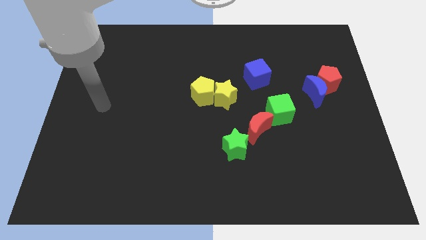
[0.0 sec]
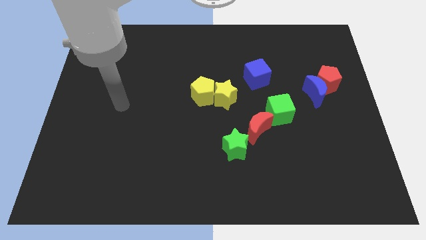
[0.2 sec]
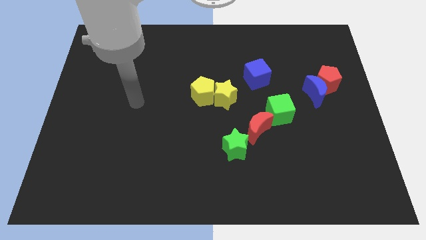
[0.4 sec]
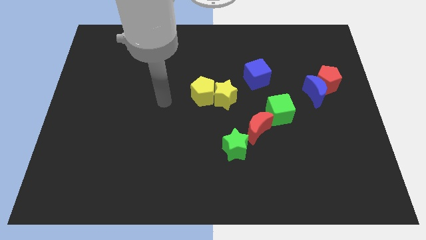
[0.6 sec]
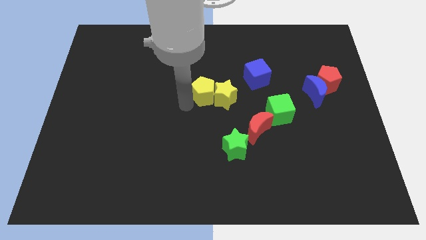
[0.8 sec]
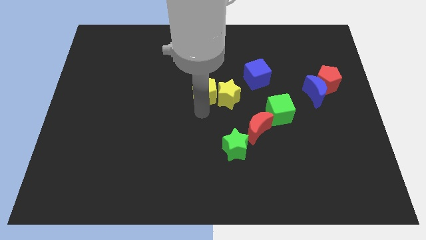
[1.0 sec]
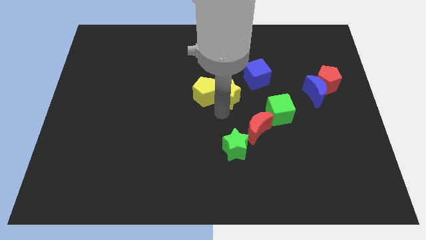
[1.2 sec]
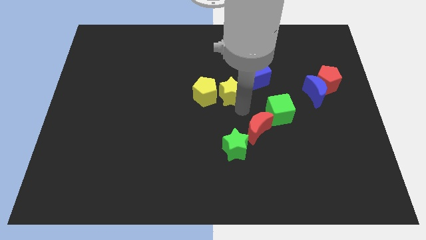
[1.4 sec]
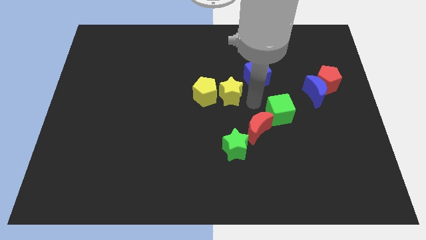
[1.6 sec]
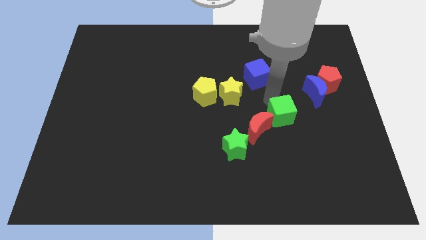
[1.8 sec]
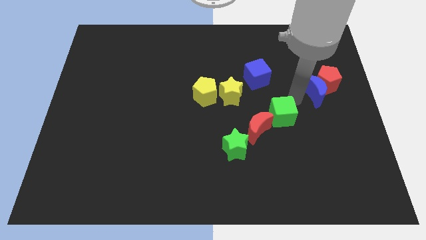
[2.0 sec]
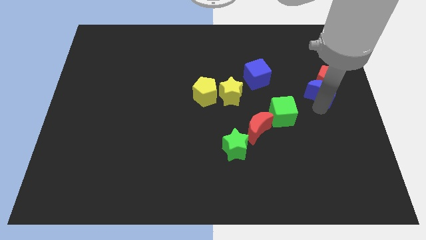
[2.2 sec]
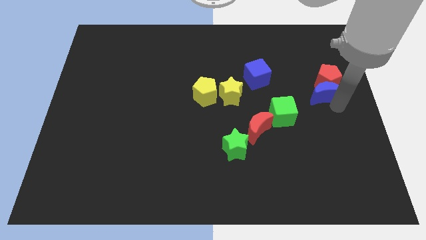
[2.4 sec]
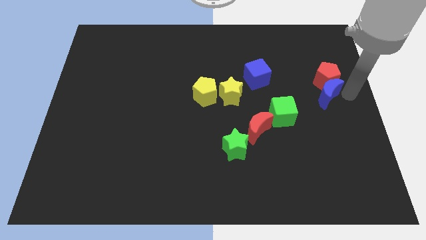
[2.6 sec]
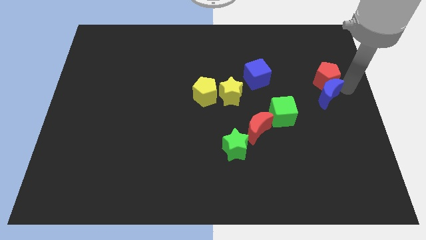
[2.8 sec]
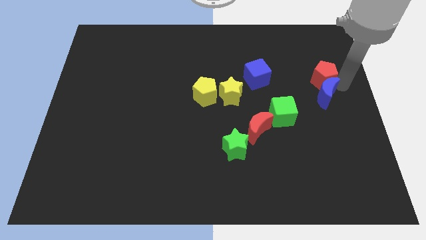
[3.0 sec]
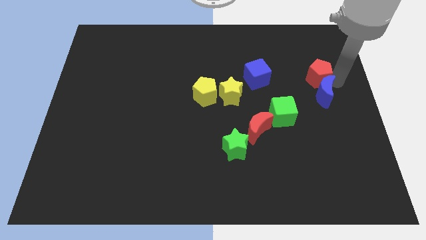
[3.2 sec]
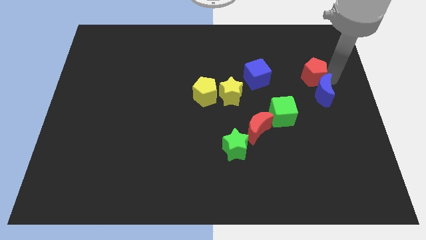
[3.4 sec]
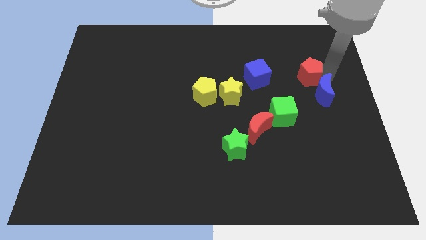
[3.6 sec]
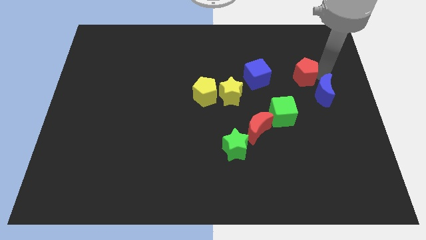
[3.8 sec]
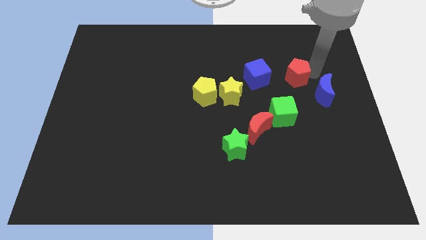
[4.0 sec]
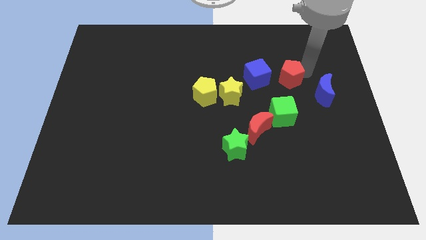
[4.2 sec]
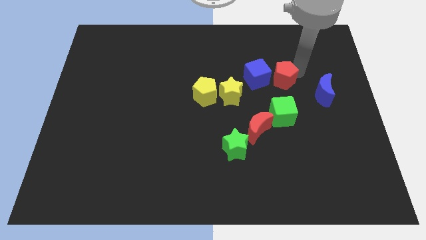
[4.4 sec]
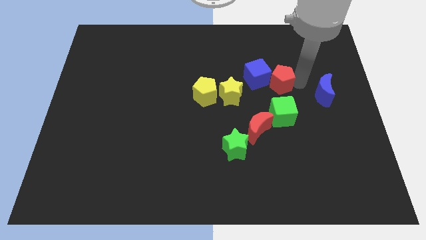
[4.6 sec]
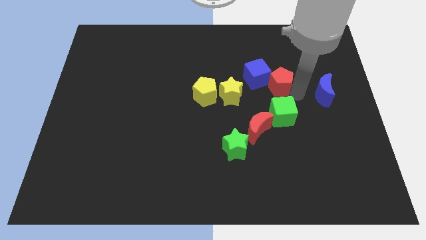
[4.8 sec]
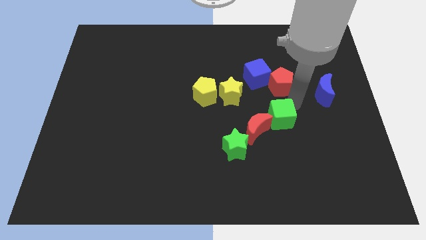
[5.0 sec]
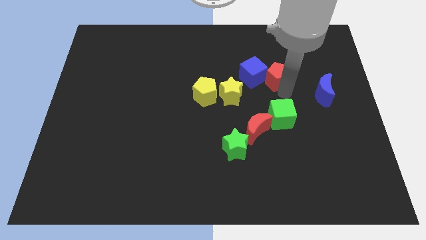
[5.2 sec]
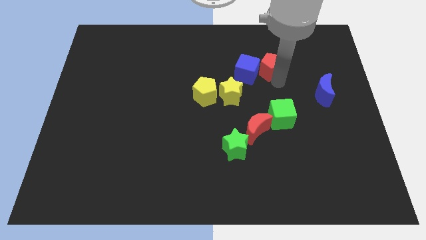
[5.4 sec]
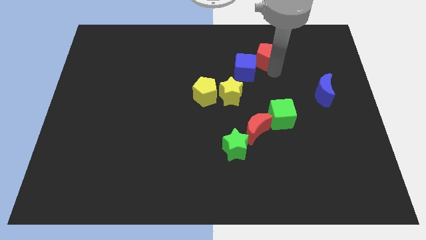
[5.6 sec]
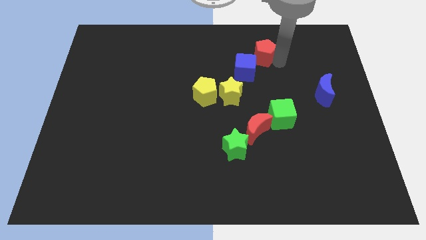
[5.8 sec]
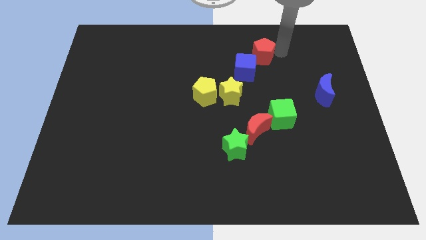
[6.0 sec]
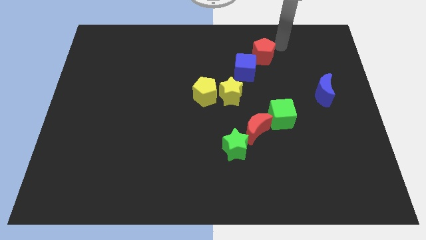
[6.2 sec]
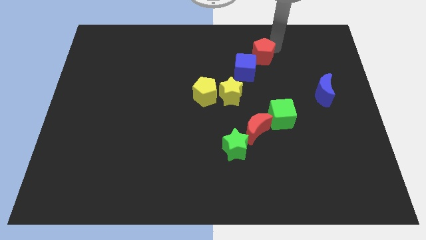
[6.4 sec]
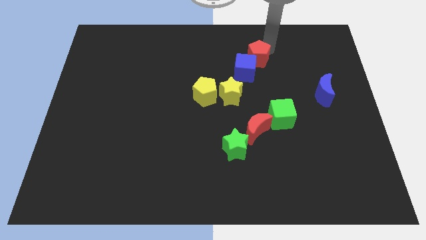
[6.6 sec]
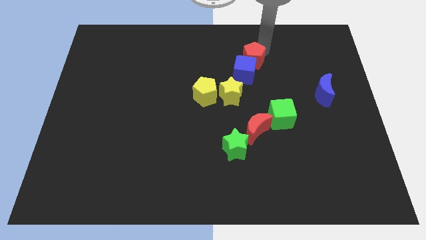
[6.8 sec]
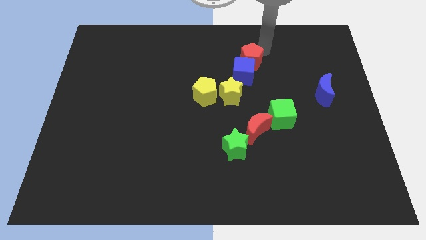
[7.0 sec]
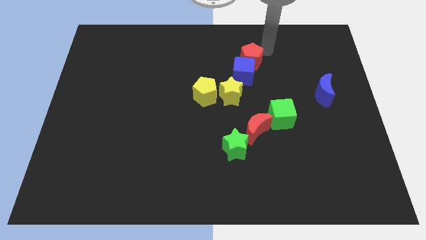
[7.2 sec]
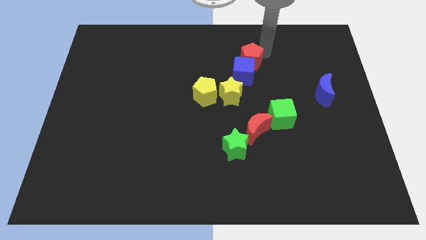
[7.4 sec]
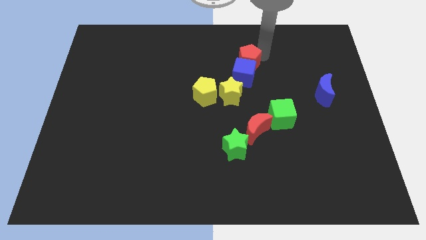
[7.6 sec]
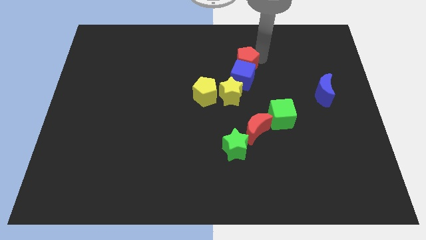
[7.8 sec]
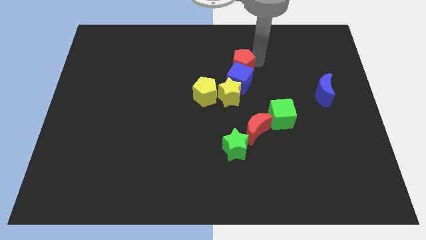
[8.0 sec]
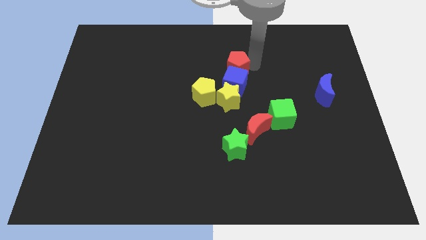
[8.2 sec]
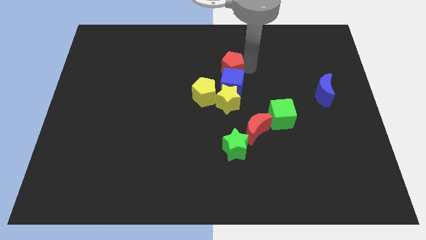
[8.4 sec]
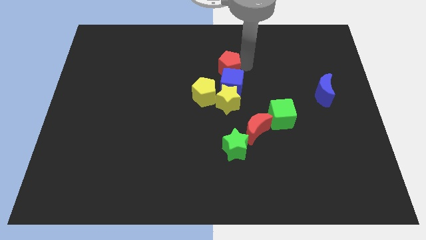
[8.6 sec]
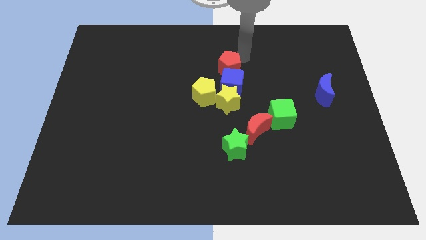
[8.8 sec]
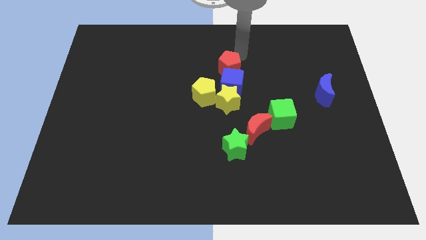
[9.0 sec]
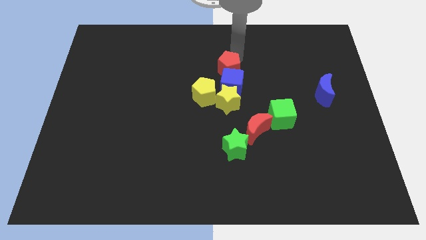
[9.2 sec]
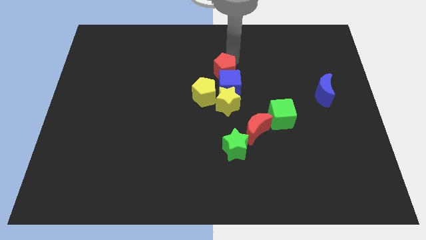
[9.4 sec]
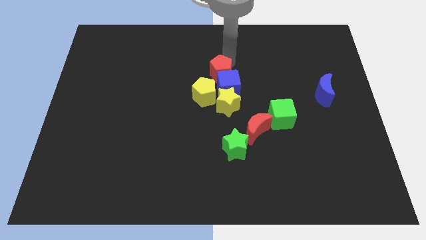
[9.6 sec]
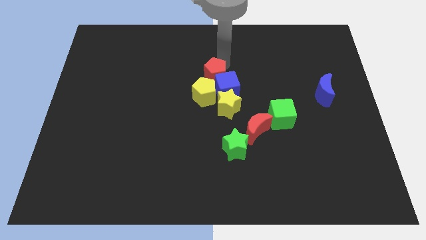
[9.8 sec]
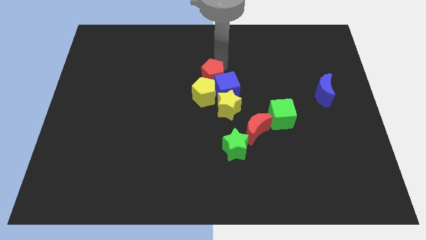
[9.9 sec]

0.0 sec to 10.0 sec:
move the red pentagon towards the yellow pentagon

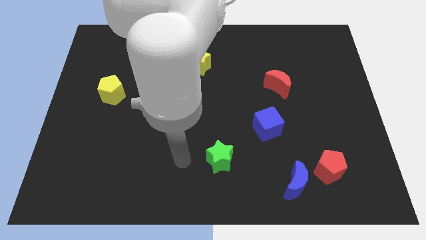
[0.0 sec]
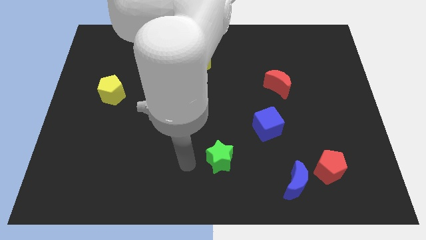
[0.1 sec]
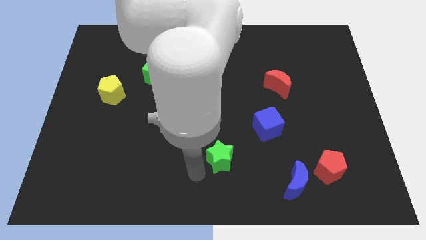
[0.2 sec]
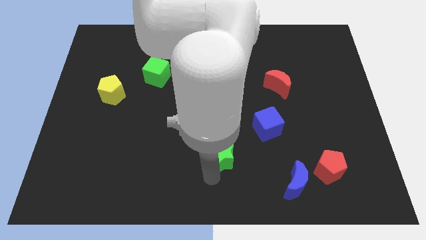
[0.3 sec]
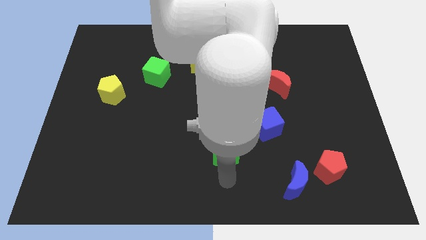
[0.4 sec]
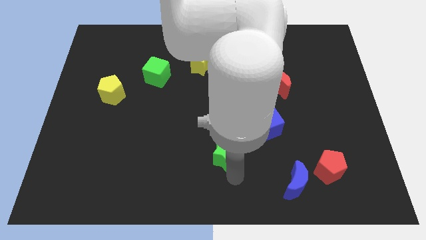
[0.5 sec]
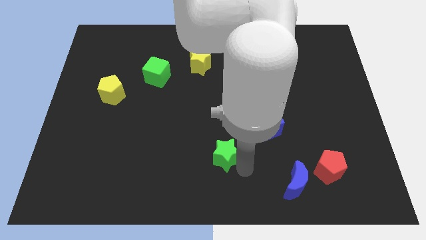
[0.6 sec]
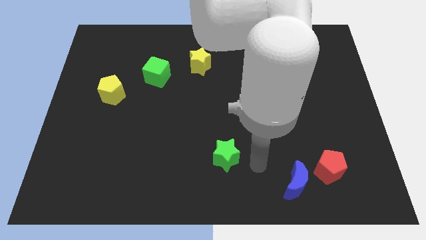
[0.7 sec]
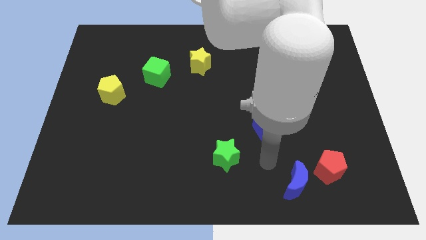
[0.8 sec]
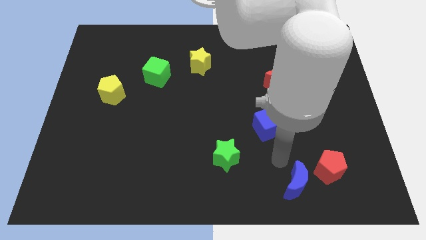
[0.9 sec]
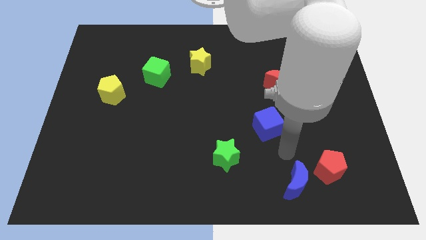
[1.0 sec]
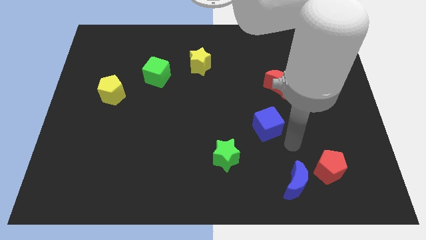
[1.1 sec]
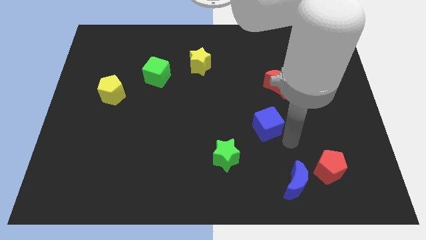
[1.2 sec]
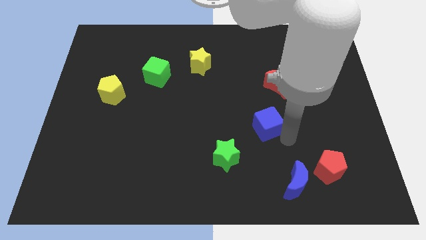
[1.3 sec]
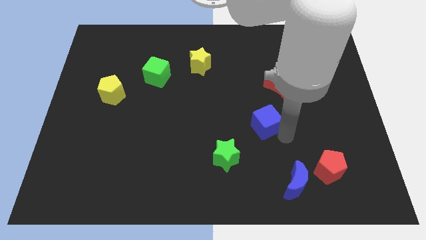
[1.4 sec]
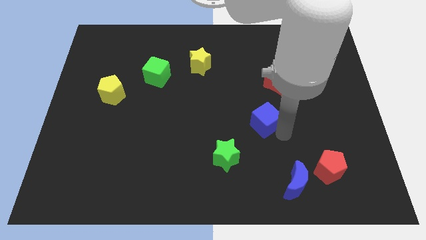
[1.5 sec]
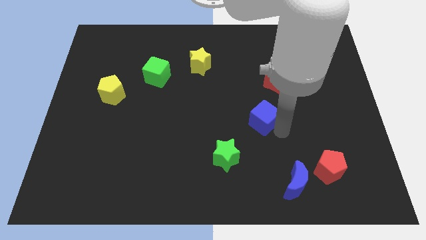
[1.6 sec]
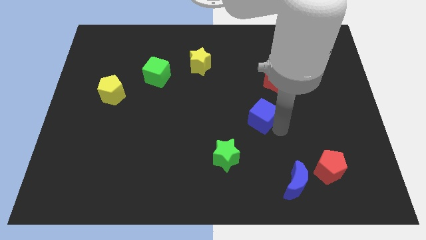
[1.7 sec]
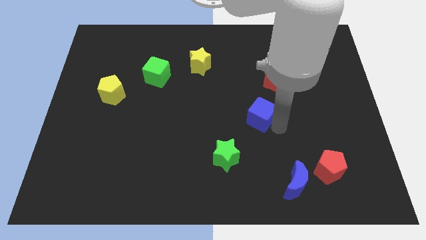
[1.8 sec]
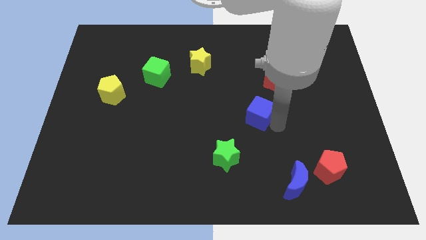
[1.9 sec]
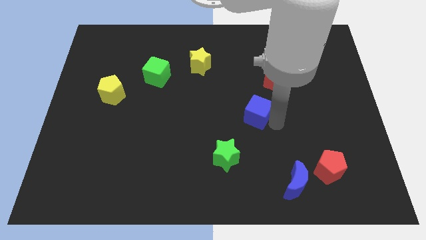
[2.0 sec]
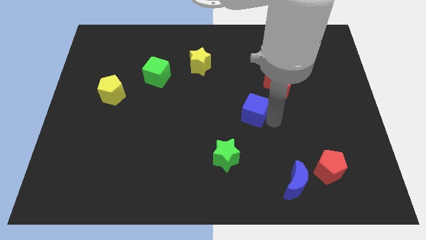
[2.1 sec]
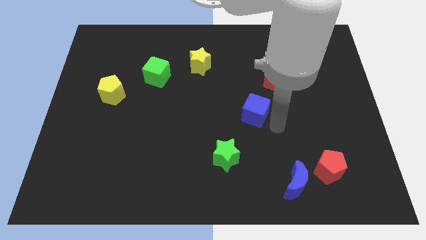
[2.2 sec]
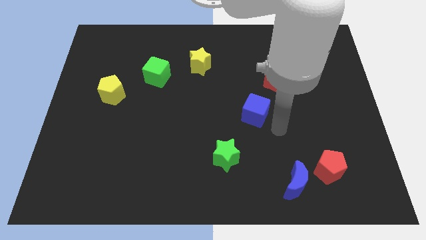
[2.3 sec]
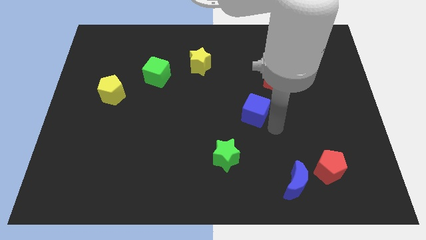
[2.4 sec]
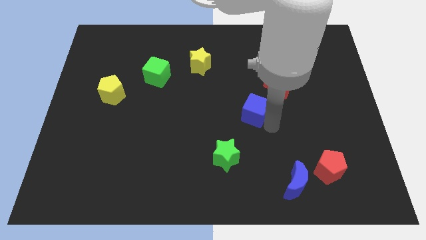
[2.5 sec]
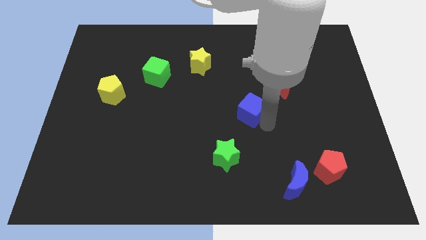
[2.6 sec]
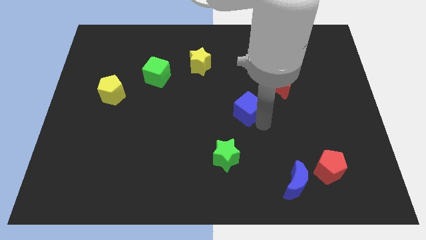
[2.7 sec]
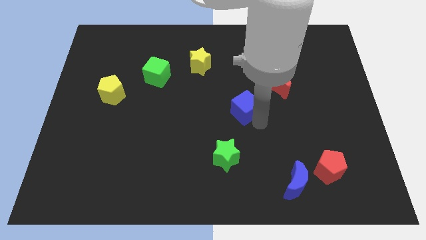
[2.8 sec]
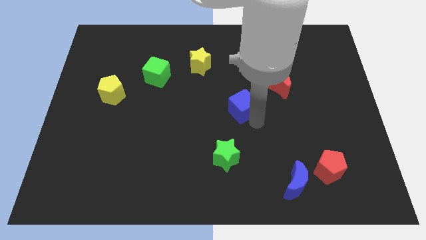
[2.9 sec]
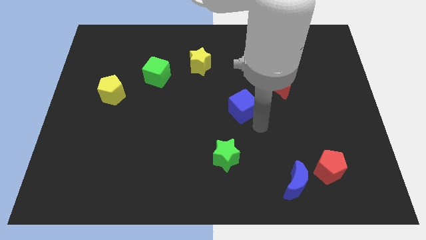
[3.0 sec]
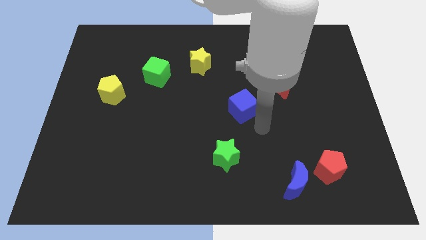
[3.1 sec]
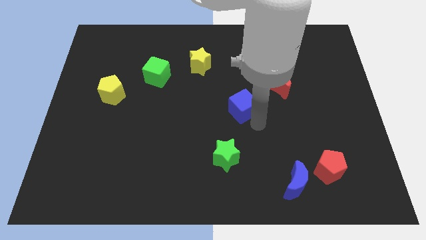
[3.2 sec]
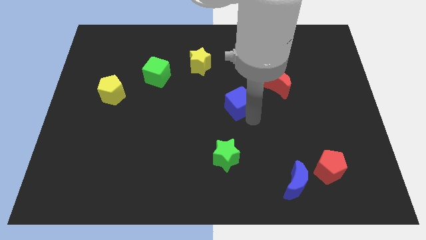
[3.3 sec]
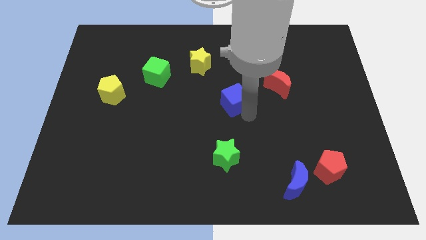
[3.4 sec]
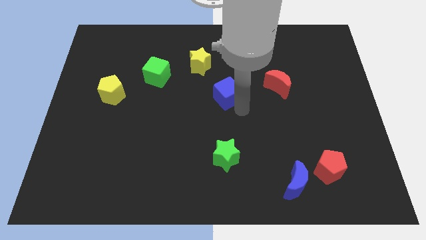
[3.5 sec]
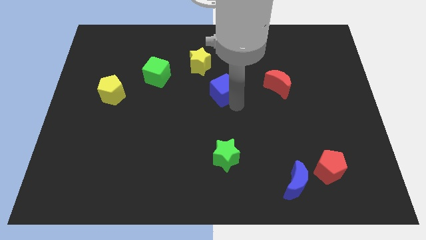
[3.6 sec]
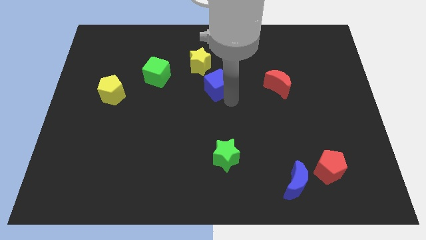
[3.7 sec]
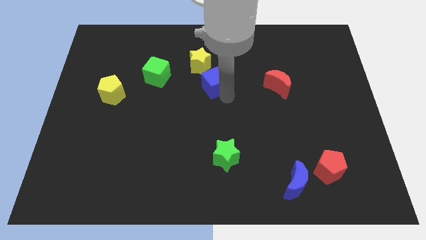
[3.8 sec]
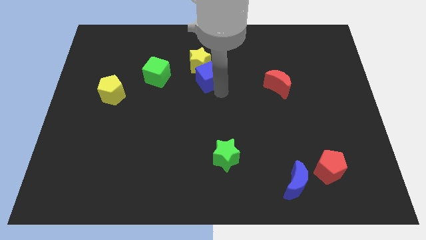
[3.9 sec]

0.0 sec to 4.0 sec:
put the blue cube next to the yellow star
